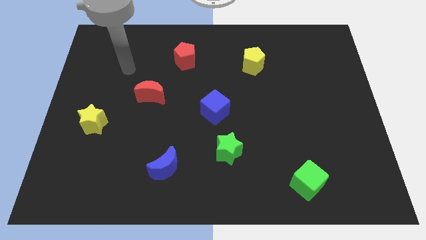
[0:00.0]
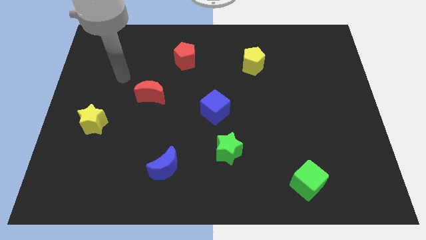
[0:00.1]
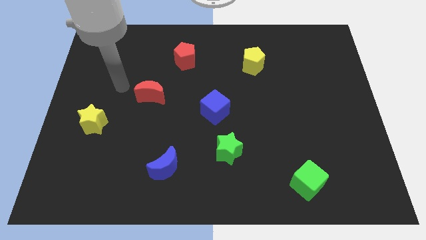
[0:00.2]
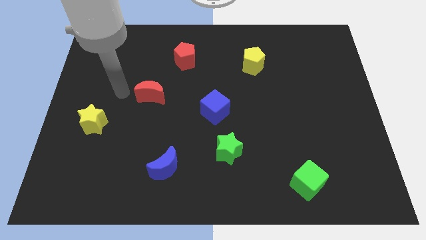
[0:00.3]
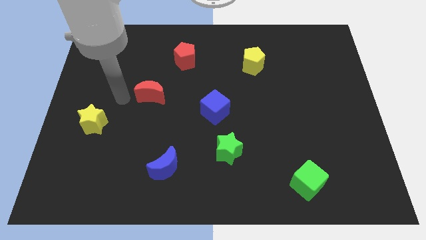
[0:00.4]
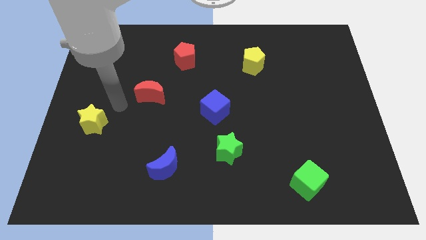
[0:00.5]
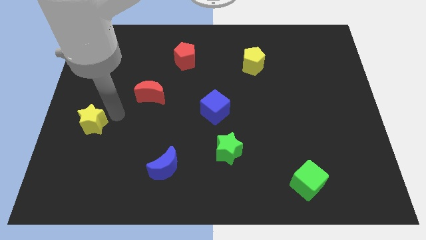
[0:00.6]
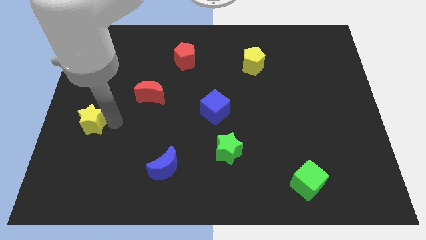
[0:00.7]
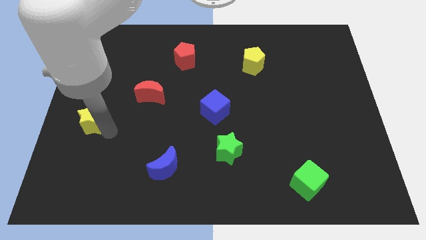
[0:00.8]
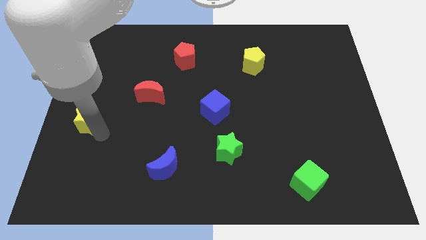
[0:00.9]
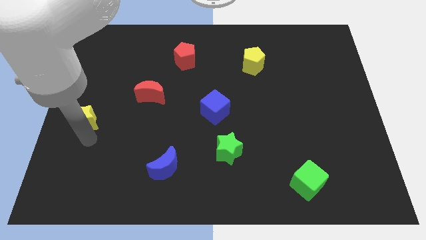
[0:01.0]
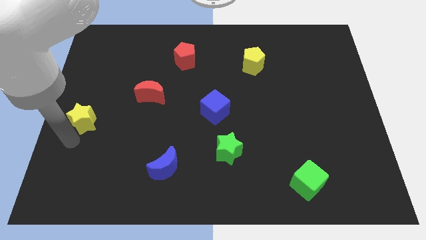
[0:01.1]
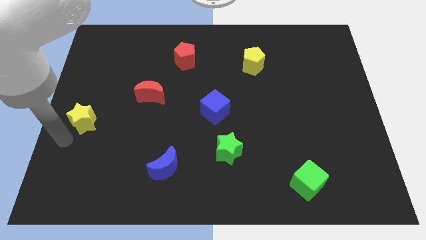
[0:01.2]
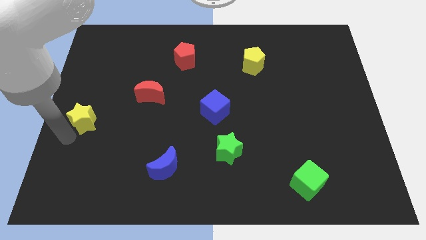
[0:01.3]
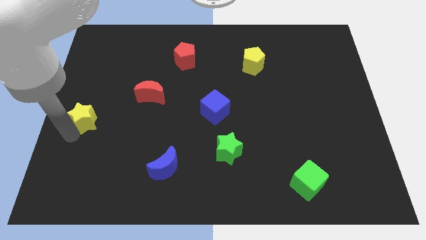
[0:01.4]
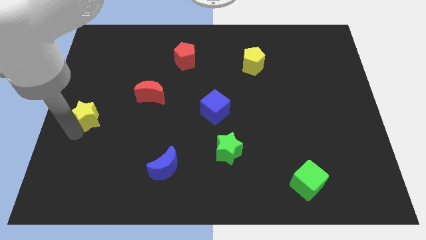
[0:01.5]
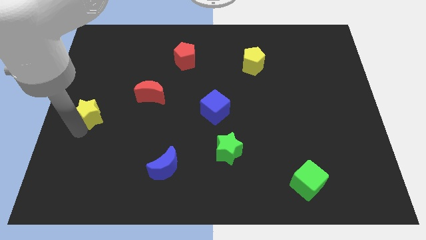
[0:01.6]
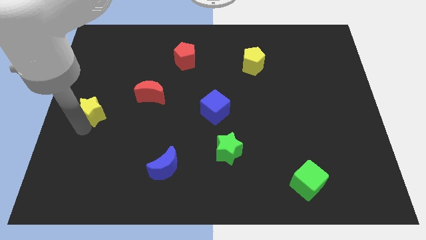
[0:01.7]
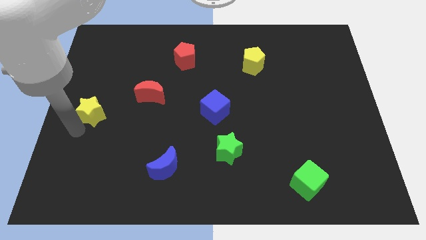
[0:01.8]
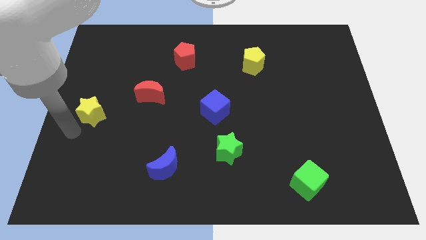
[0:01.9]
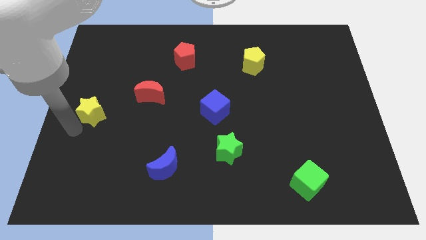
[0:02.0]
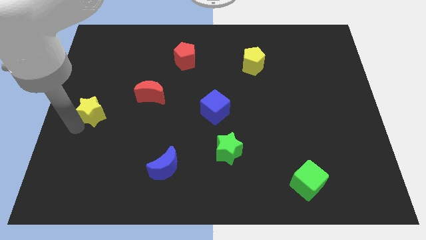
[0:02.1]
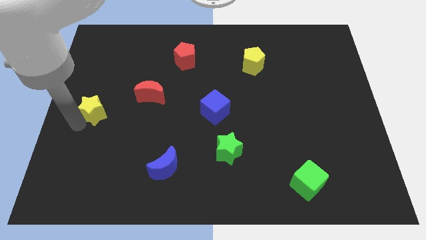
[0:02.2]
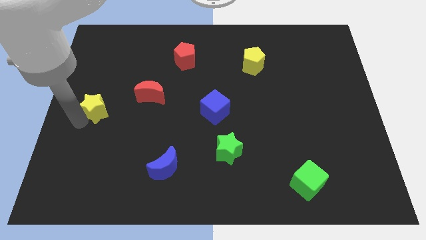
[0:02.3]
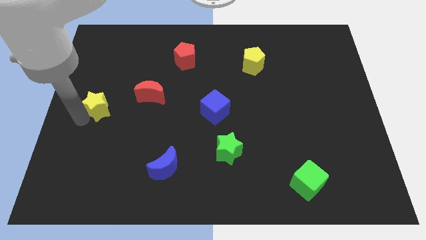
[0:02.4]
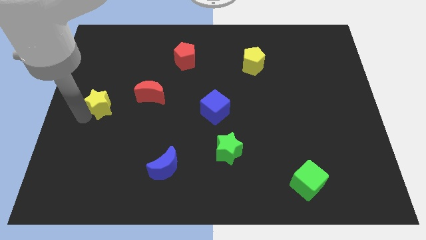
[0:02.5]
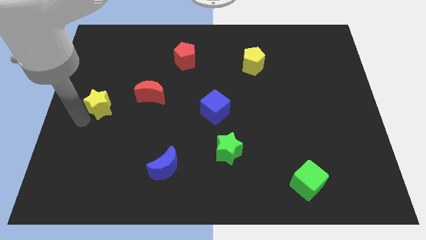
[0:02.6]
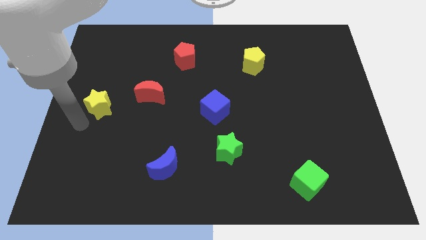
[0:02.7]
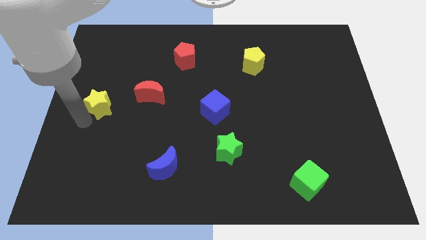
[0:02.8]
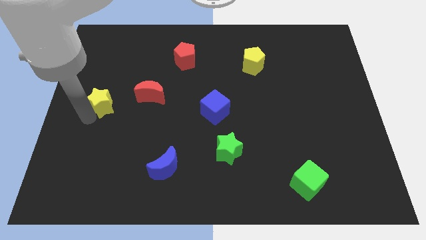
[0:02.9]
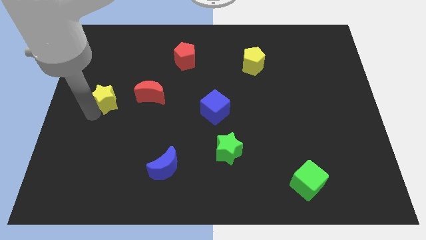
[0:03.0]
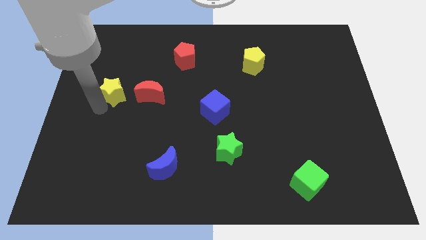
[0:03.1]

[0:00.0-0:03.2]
slightly slide the yellow star upwards and right diagonally

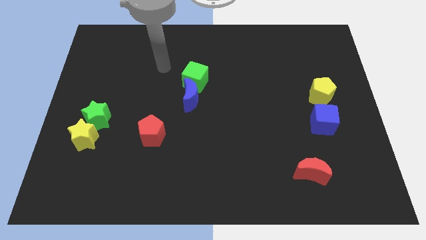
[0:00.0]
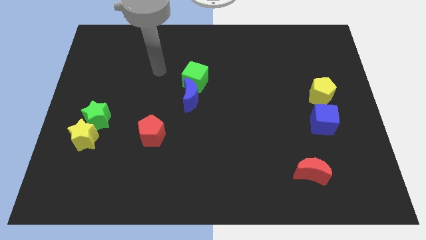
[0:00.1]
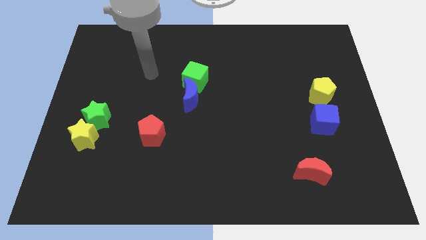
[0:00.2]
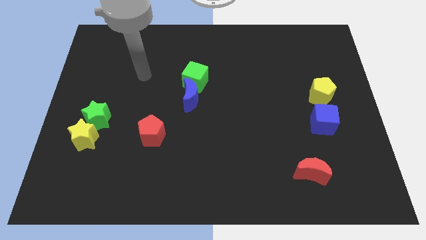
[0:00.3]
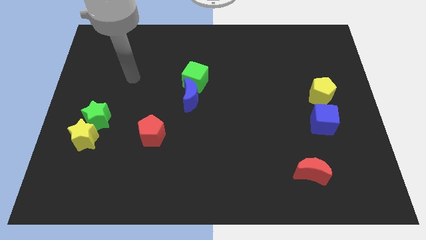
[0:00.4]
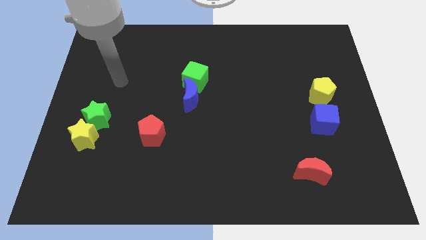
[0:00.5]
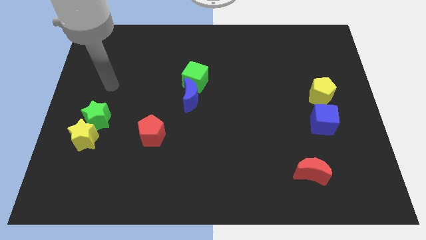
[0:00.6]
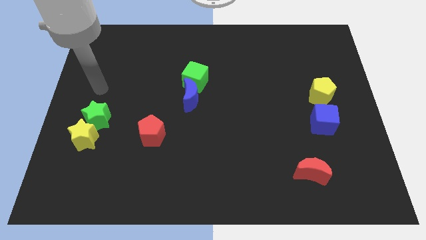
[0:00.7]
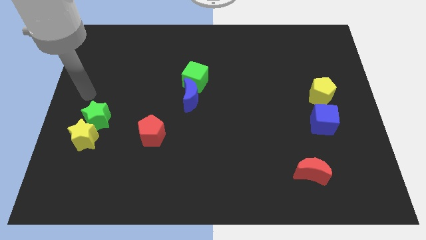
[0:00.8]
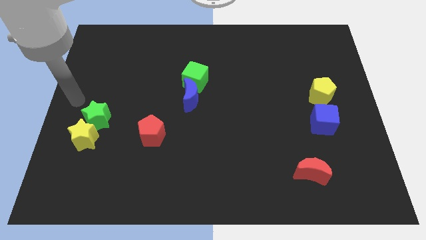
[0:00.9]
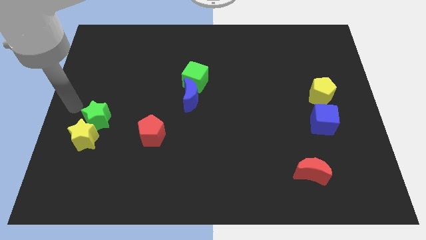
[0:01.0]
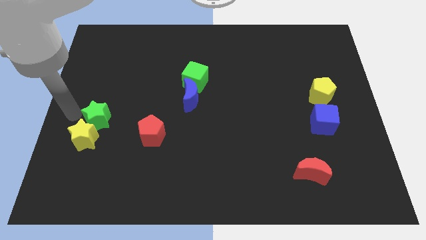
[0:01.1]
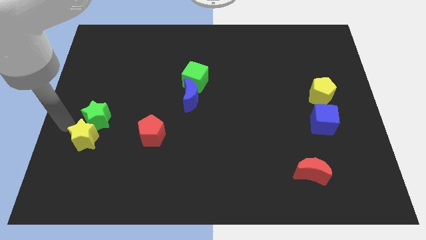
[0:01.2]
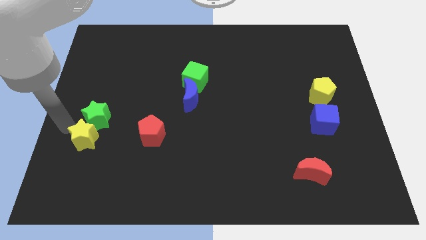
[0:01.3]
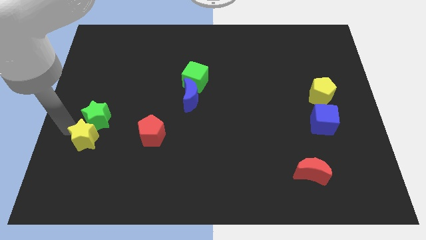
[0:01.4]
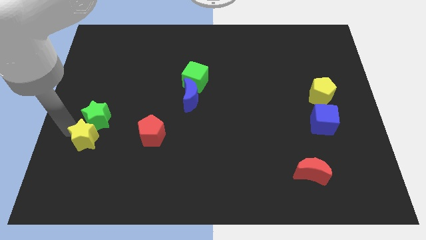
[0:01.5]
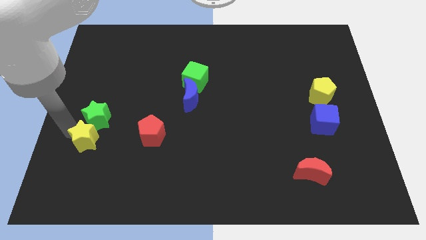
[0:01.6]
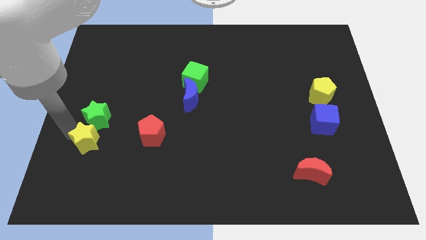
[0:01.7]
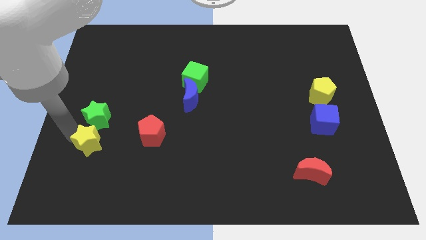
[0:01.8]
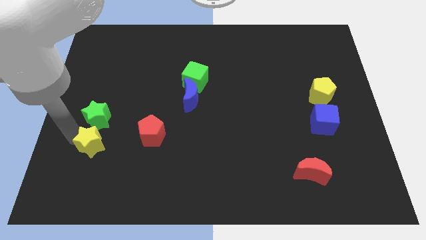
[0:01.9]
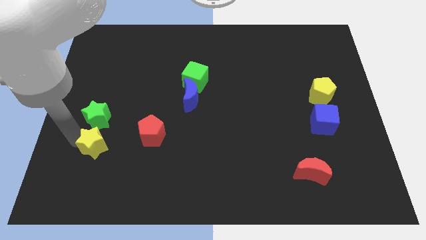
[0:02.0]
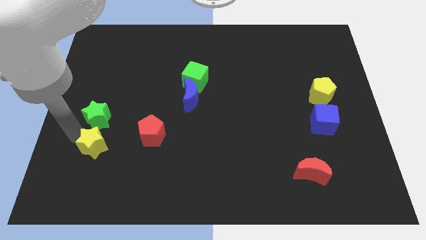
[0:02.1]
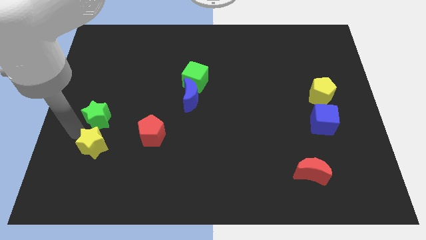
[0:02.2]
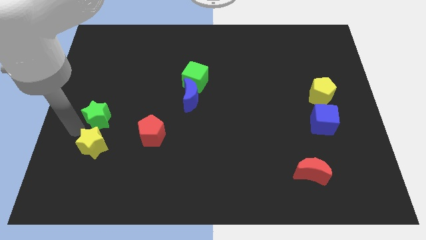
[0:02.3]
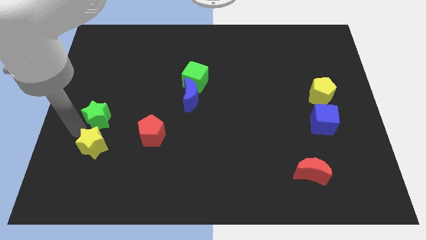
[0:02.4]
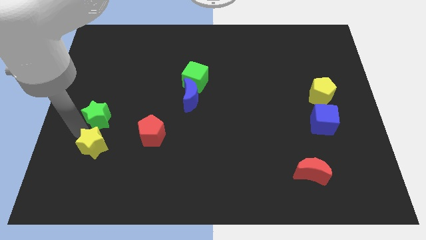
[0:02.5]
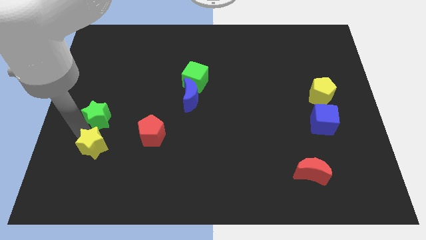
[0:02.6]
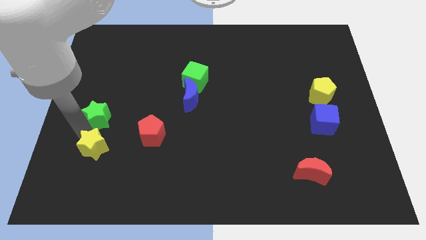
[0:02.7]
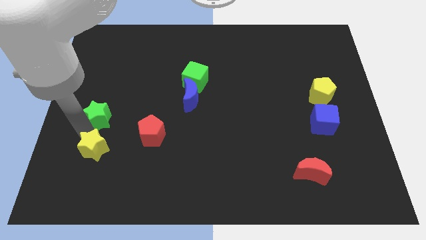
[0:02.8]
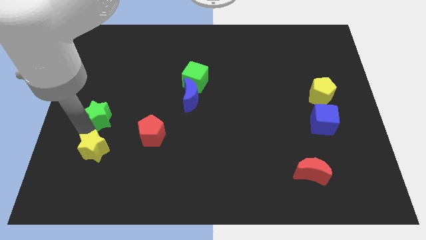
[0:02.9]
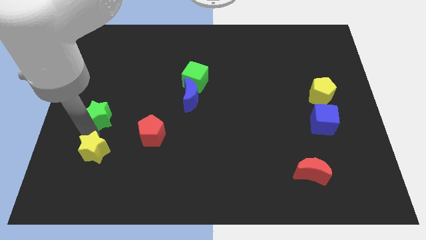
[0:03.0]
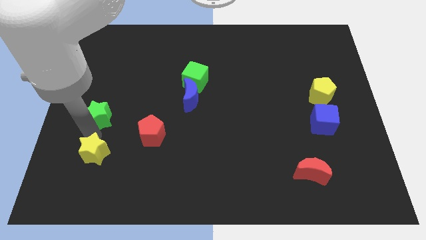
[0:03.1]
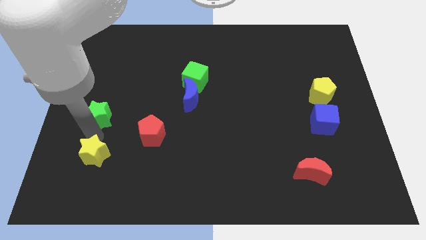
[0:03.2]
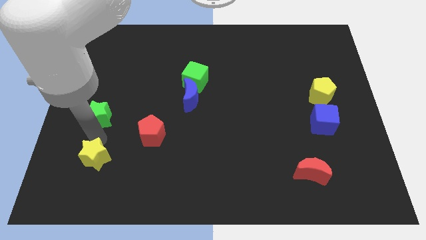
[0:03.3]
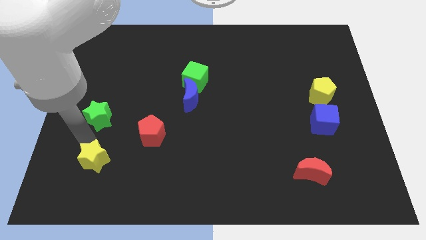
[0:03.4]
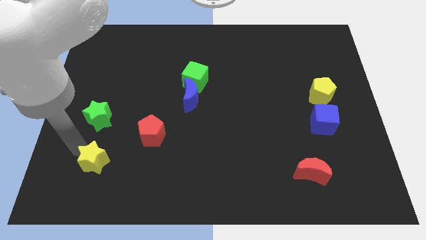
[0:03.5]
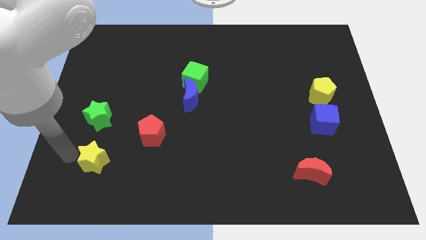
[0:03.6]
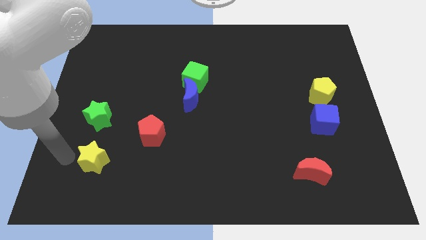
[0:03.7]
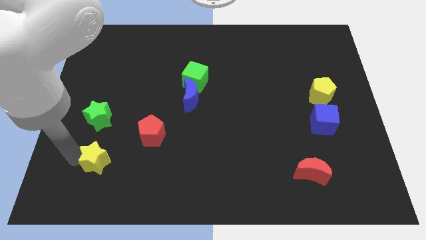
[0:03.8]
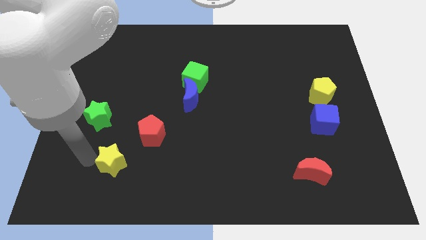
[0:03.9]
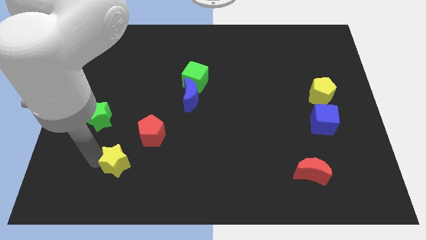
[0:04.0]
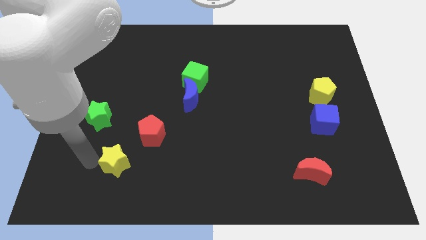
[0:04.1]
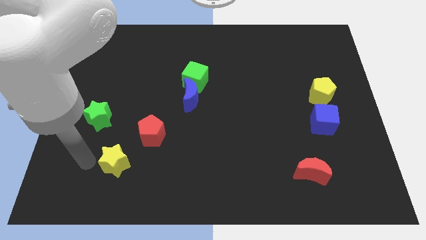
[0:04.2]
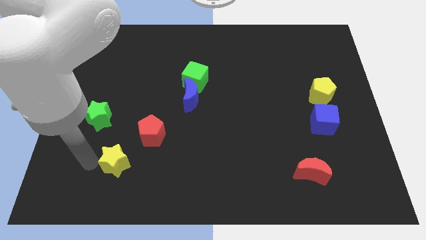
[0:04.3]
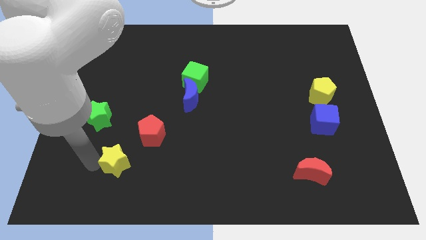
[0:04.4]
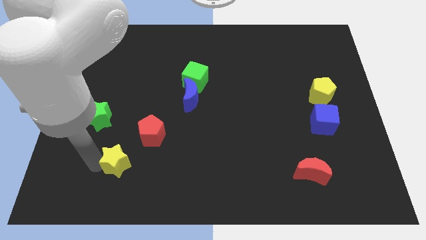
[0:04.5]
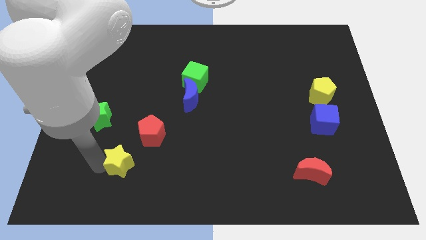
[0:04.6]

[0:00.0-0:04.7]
push the yellow star a bit to the right

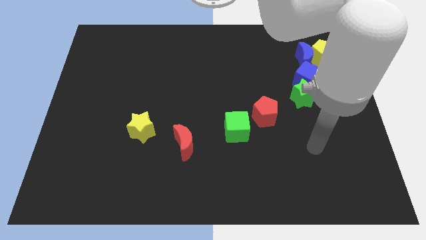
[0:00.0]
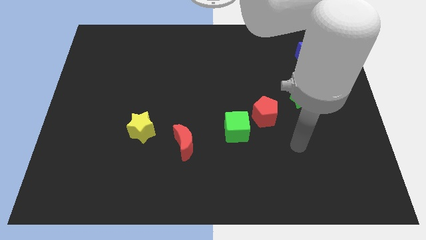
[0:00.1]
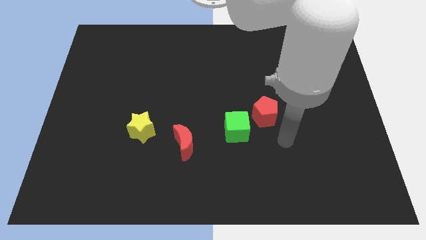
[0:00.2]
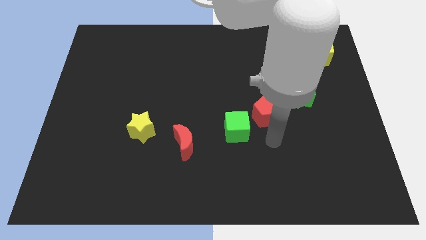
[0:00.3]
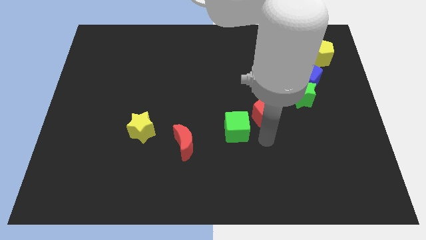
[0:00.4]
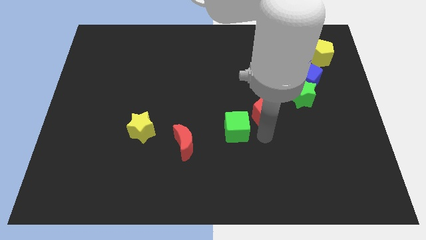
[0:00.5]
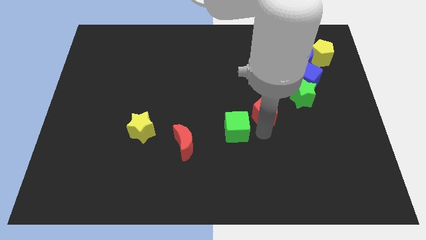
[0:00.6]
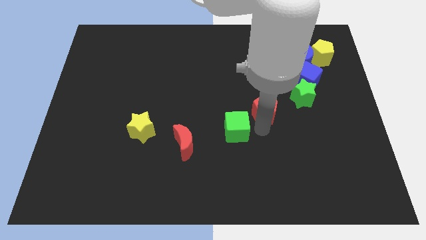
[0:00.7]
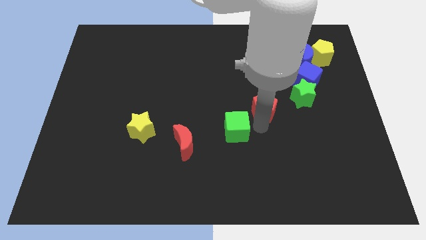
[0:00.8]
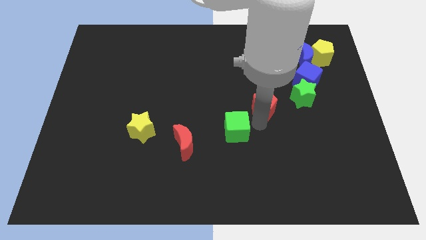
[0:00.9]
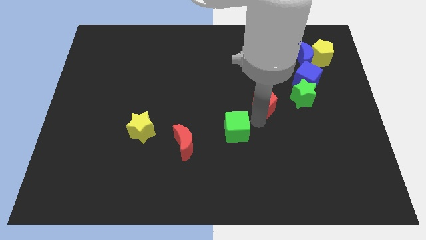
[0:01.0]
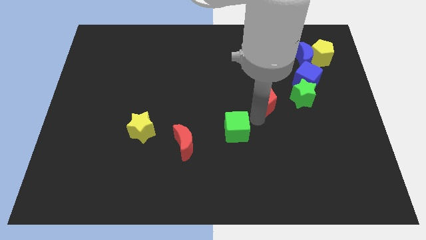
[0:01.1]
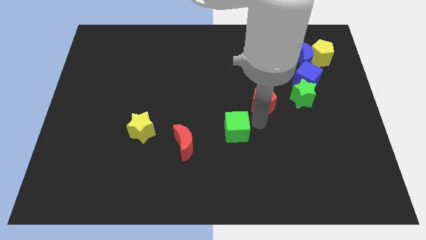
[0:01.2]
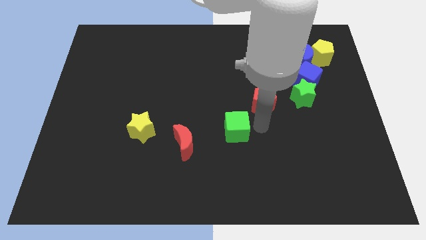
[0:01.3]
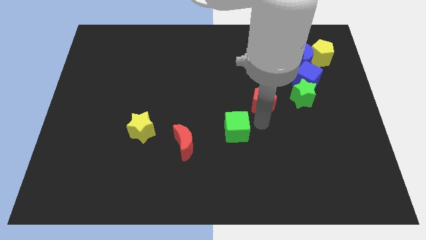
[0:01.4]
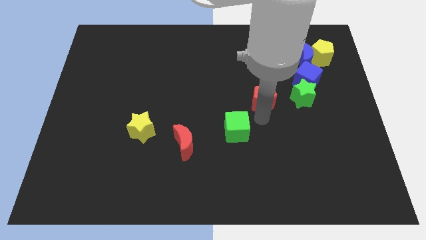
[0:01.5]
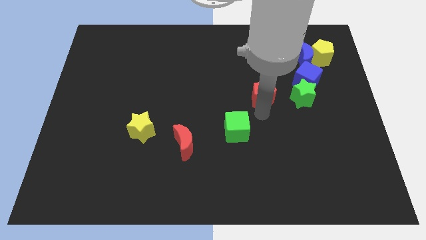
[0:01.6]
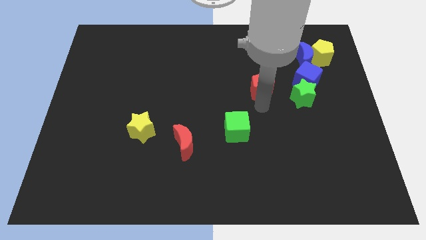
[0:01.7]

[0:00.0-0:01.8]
push the red pentagon a little bit upwards
